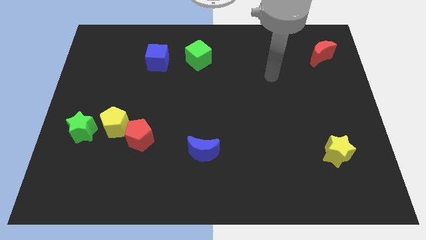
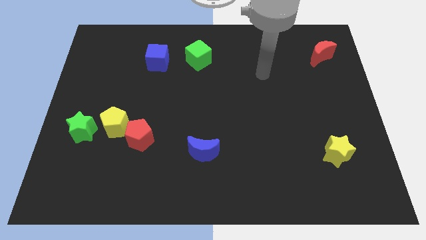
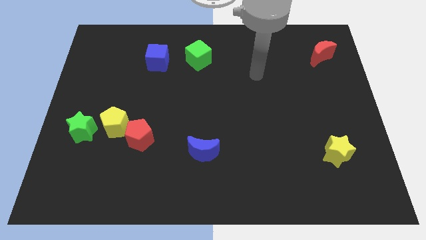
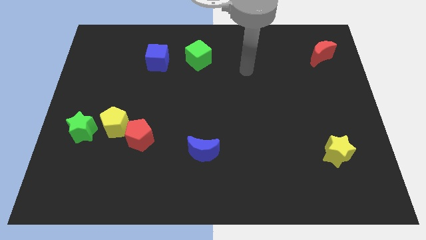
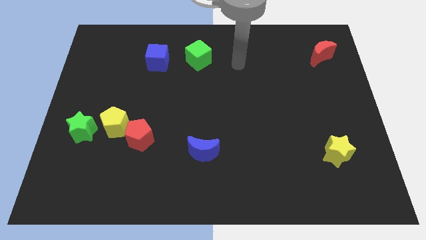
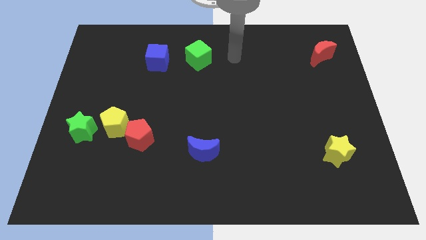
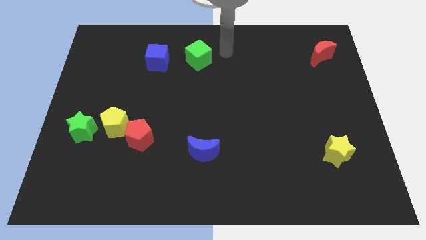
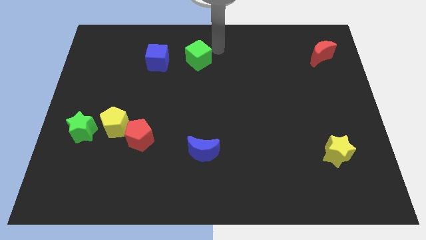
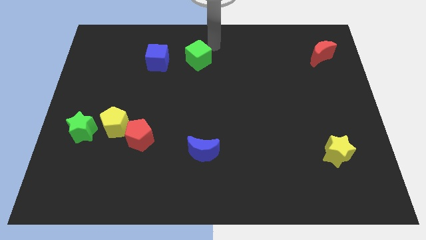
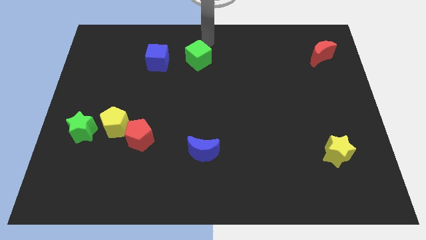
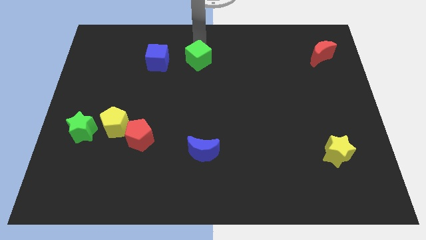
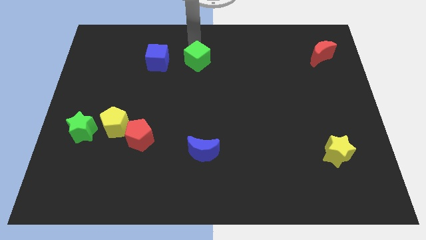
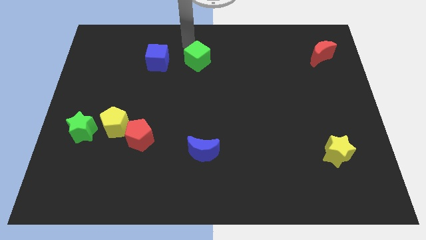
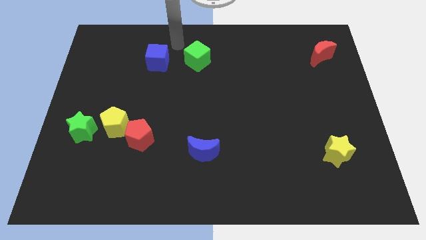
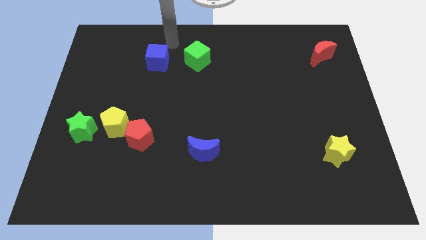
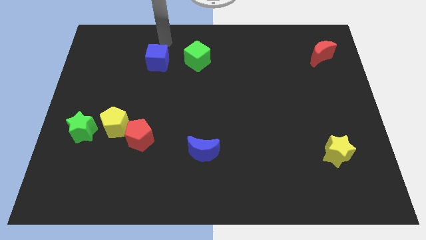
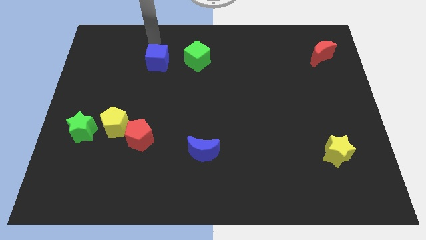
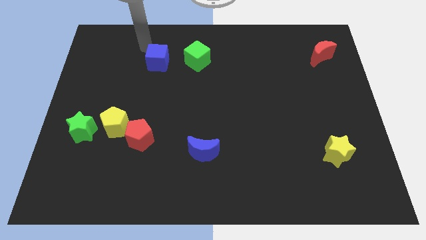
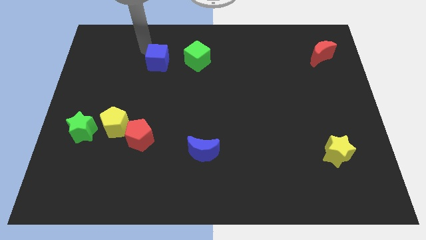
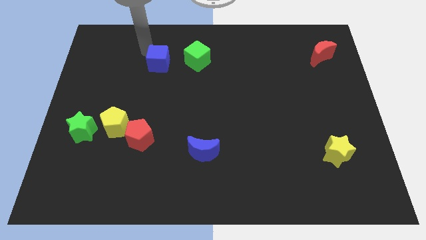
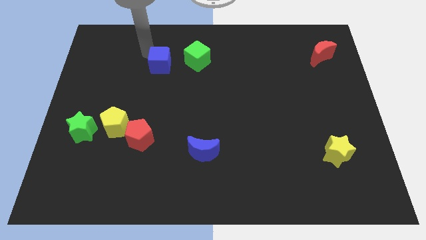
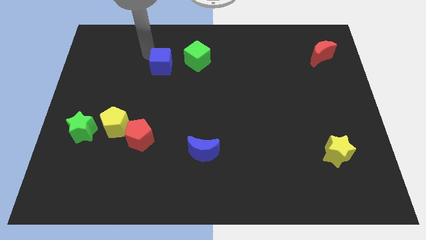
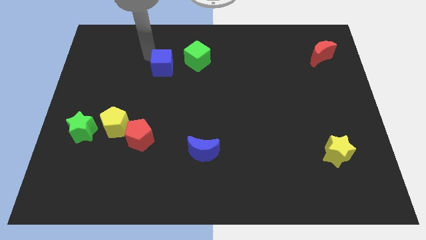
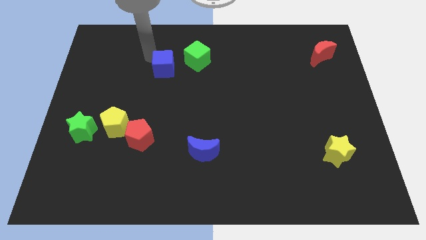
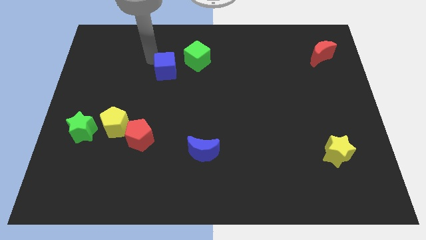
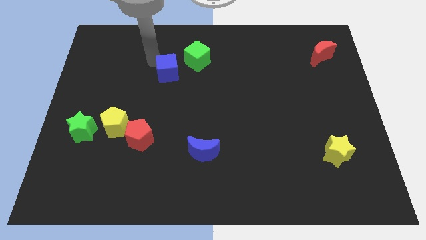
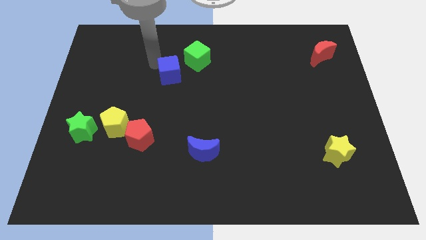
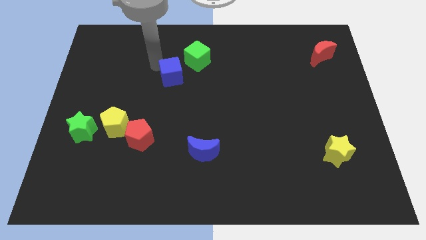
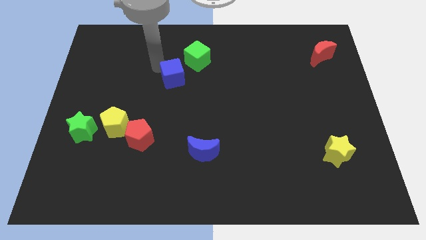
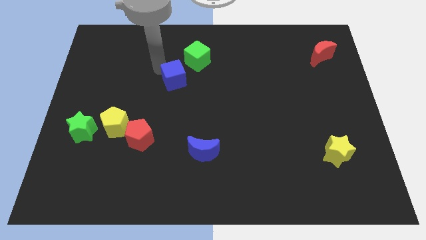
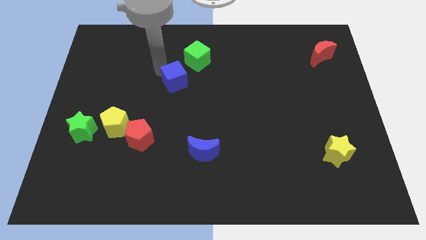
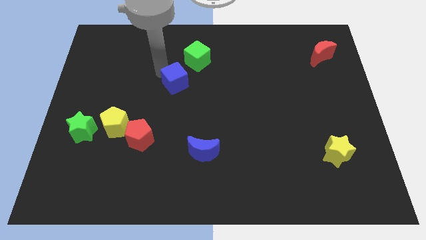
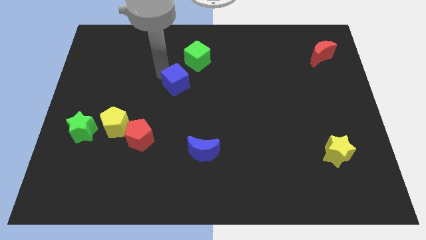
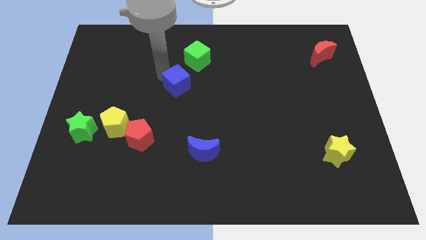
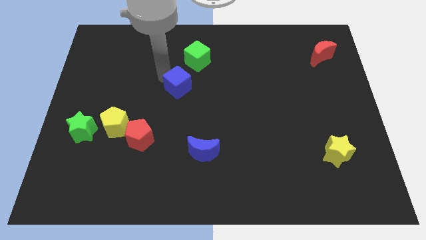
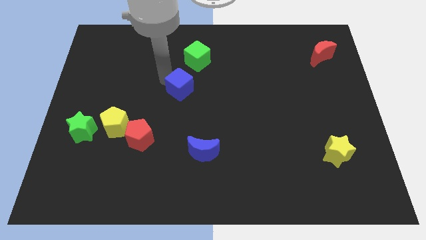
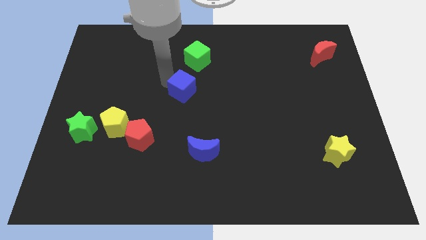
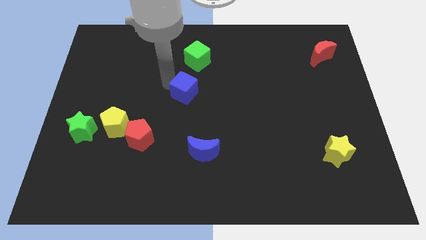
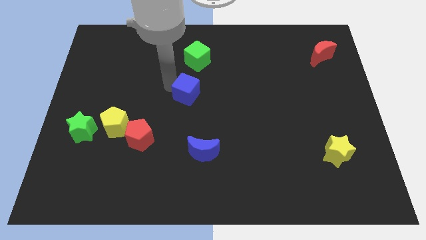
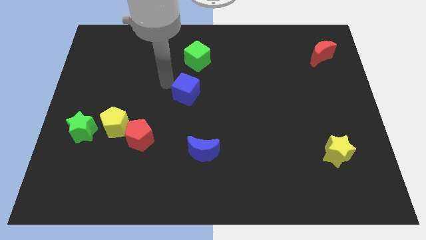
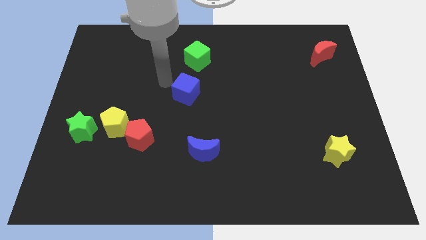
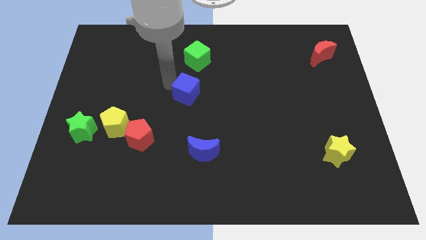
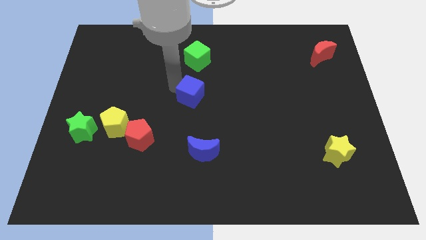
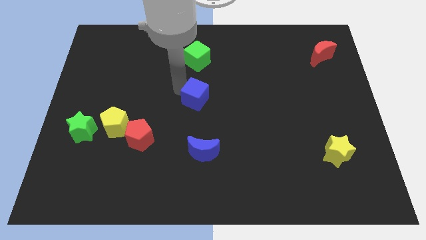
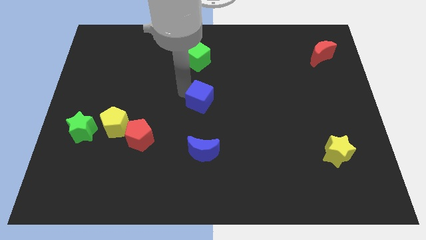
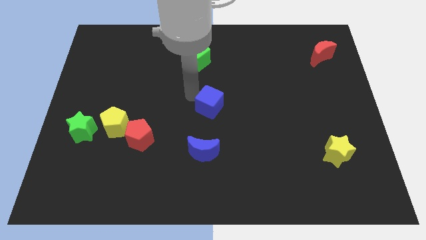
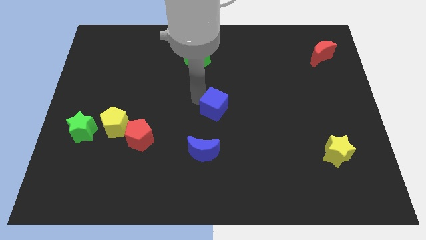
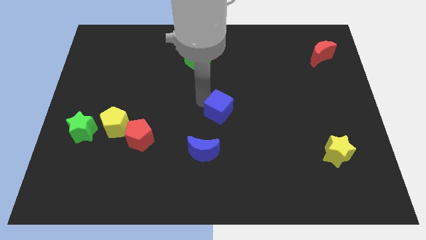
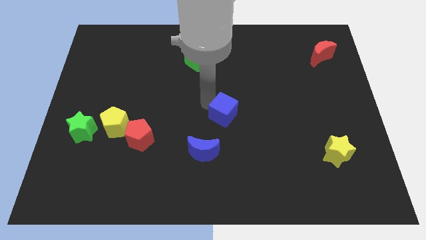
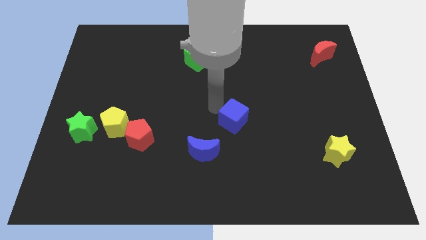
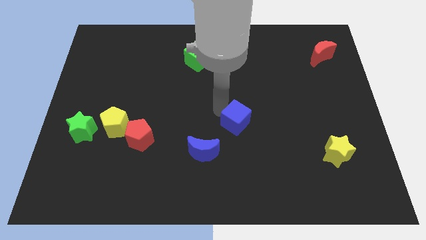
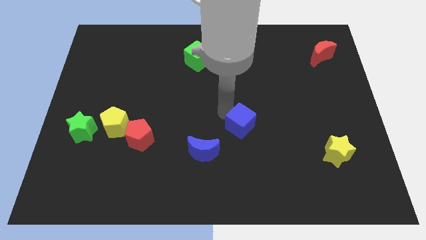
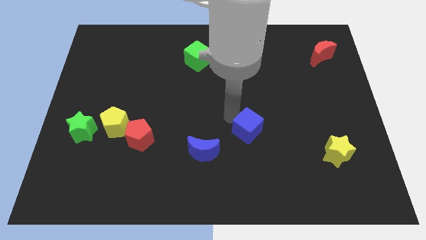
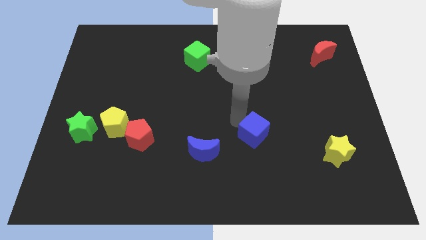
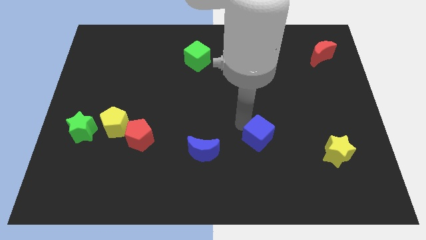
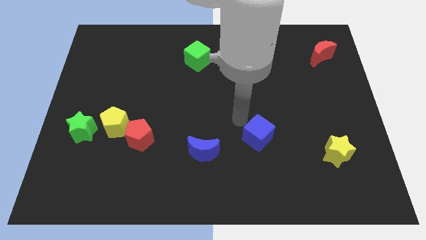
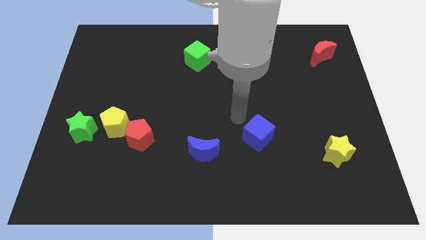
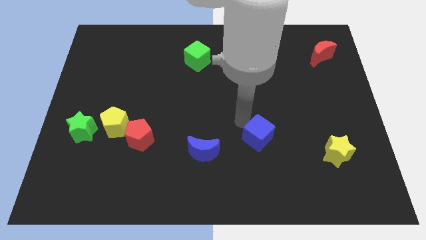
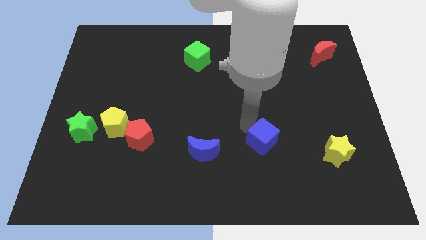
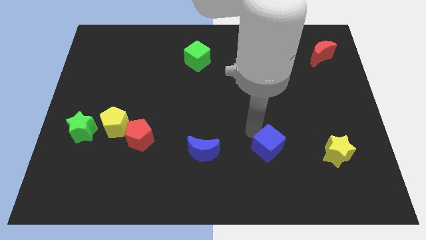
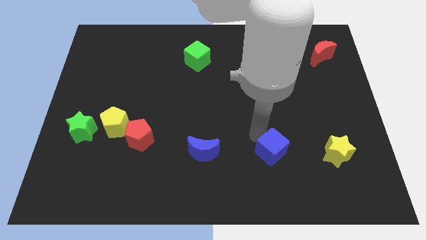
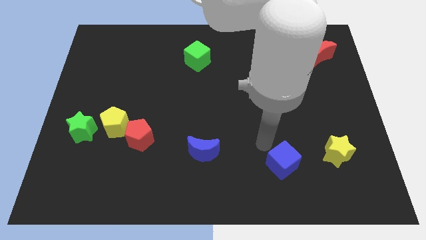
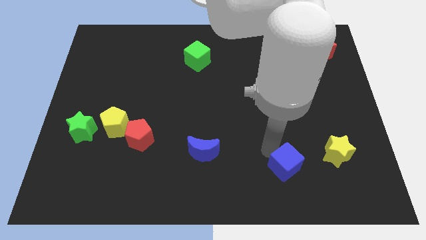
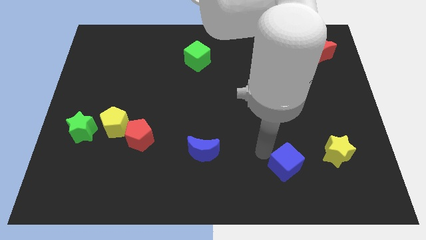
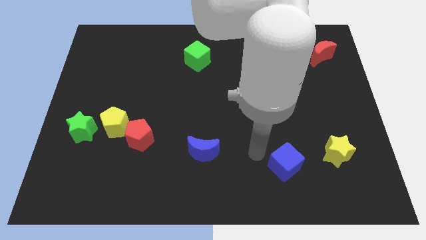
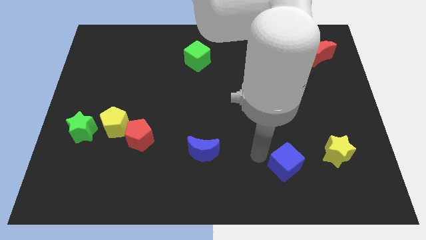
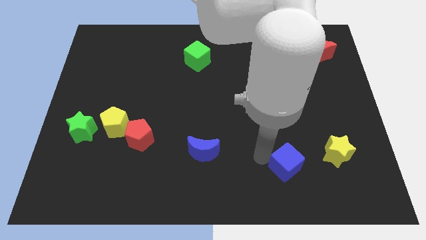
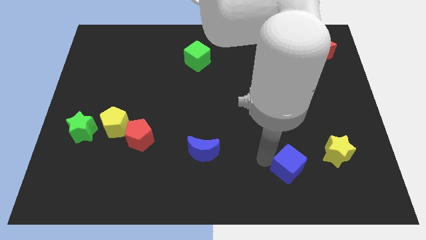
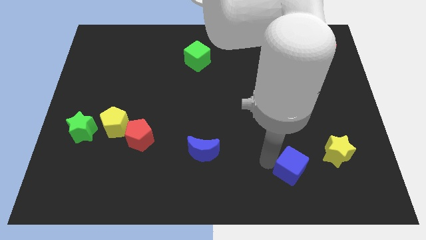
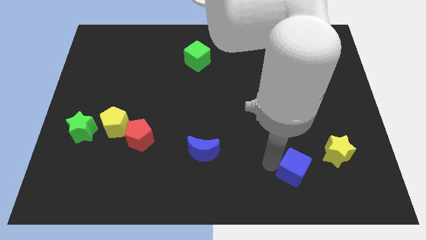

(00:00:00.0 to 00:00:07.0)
put the blue cube to the bottom left side of the yellow star
